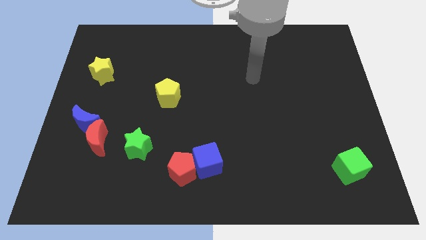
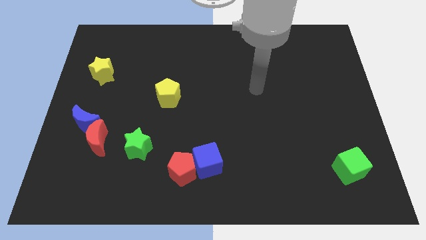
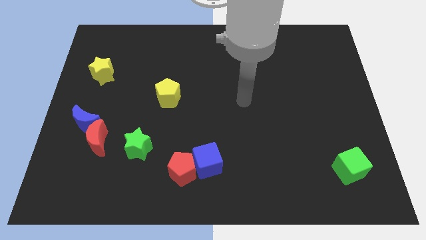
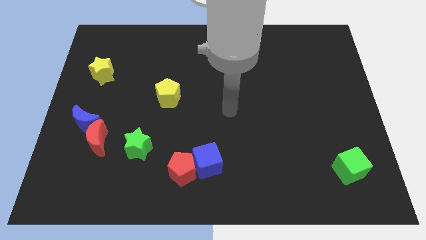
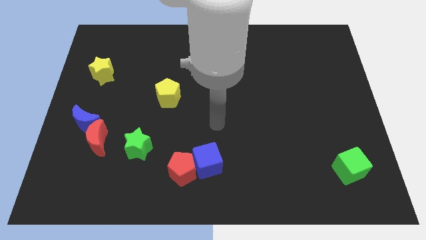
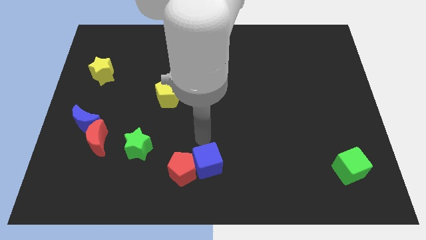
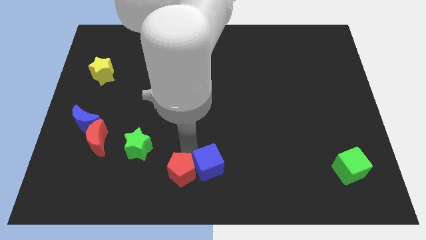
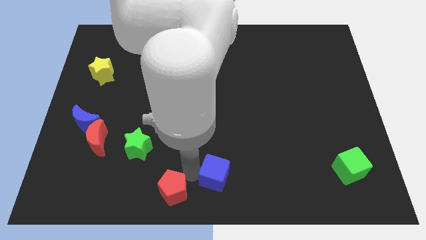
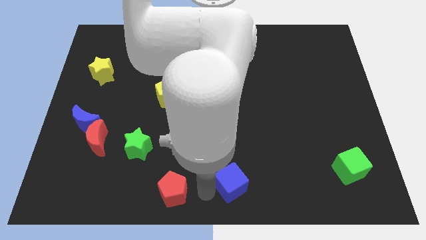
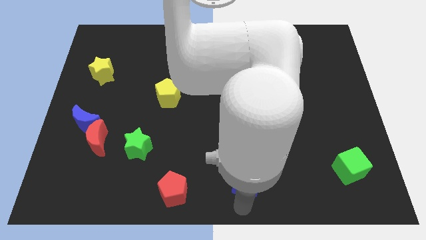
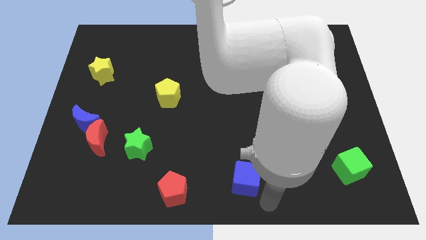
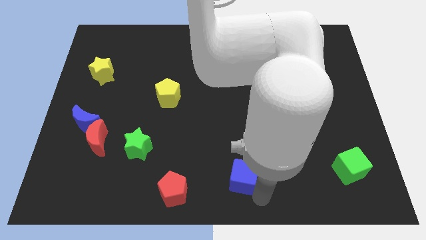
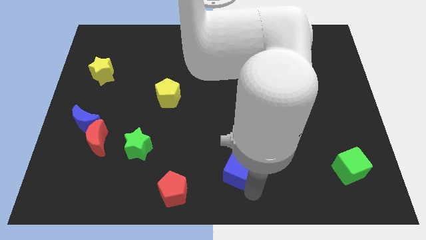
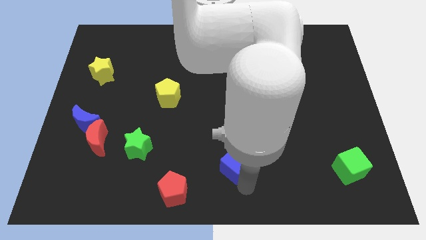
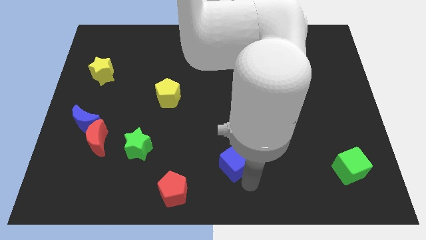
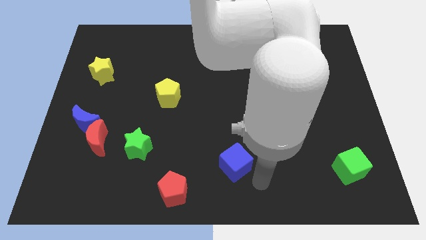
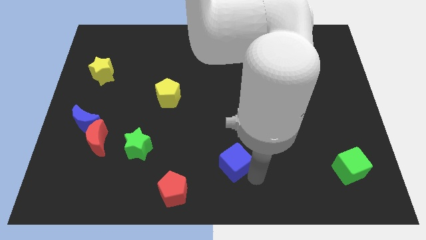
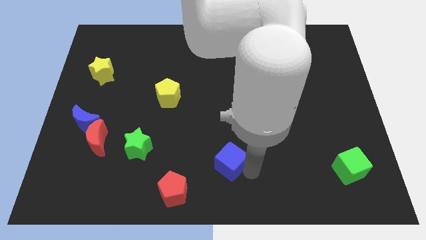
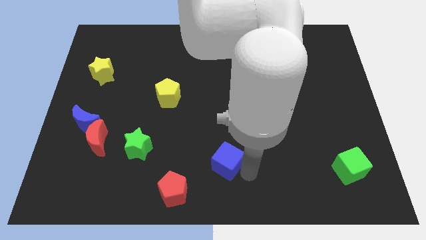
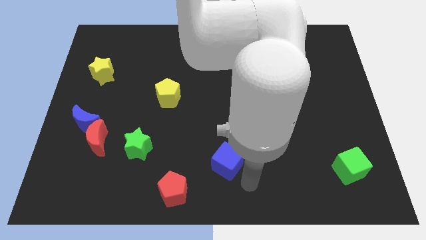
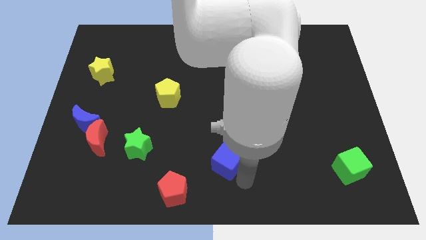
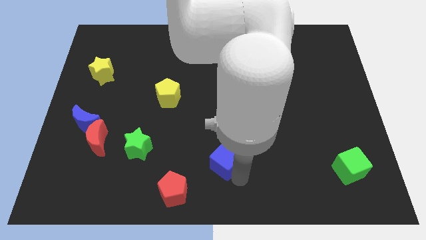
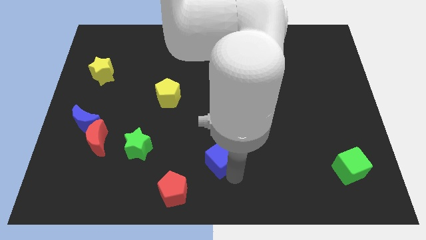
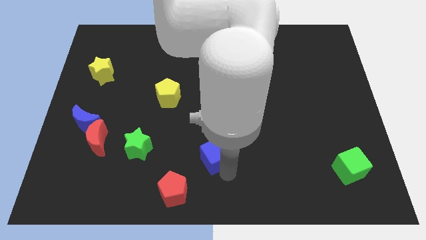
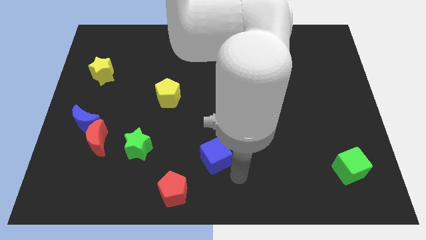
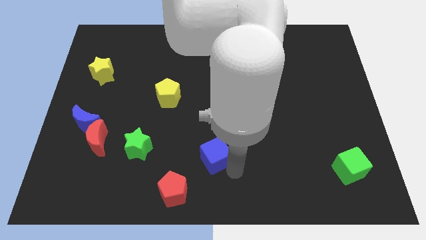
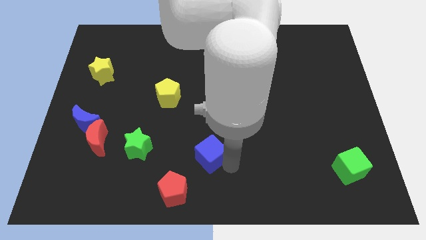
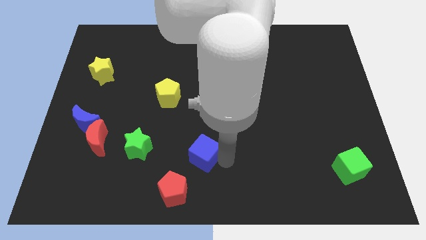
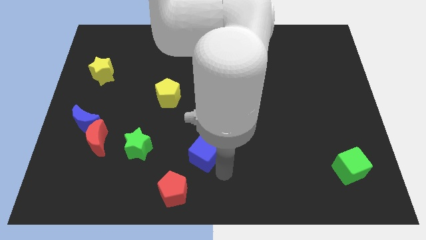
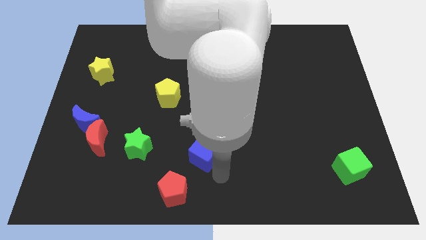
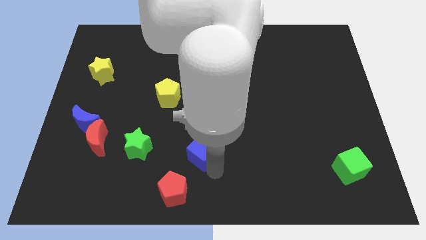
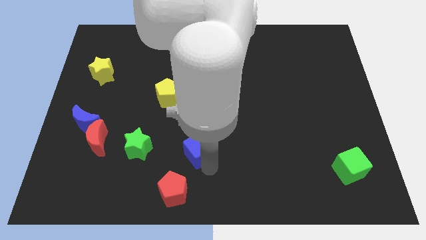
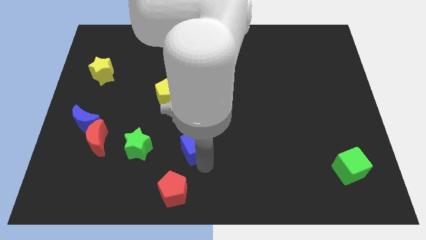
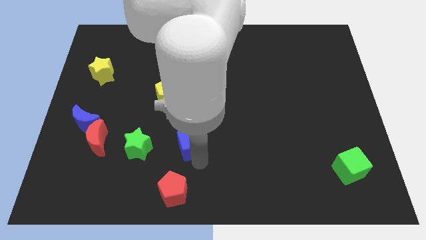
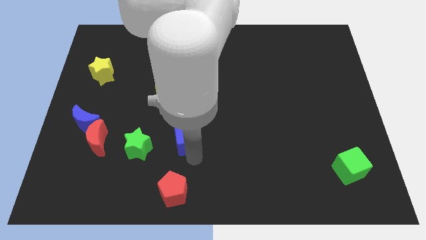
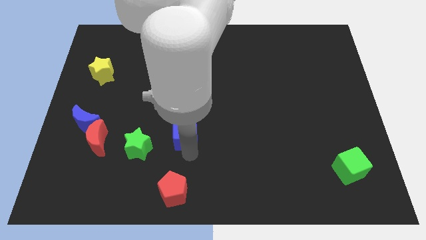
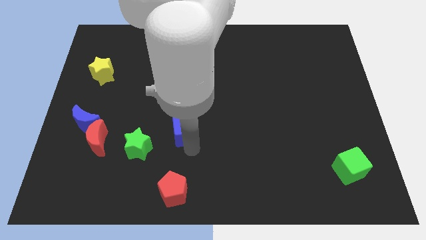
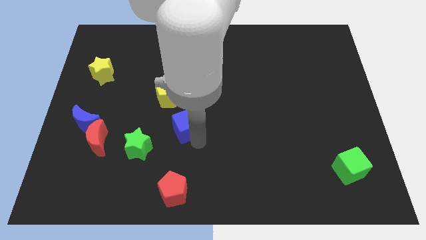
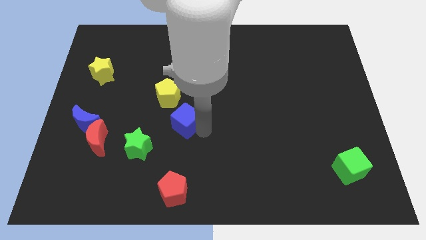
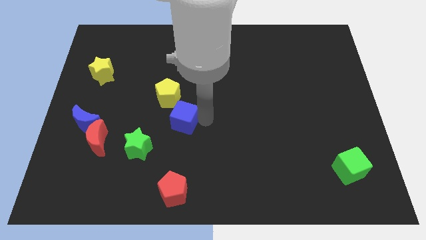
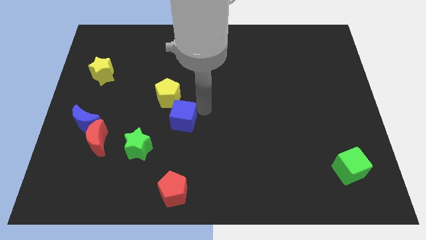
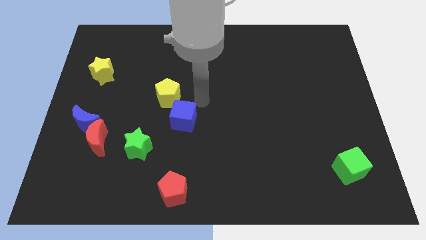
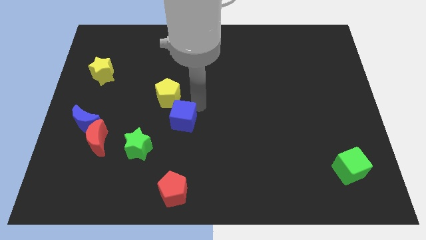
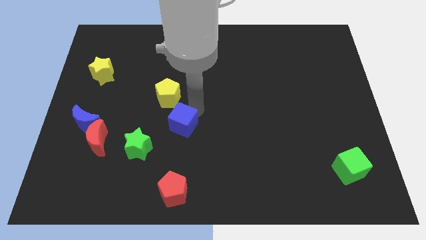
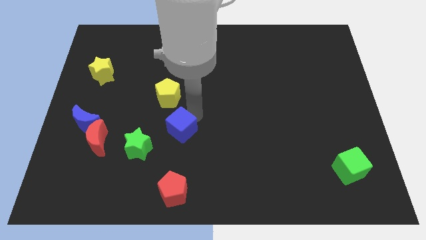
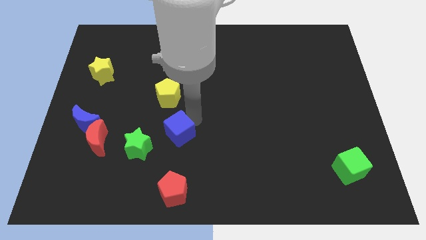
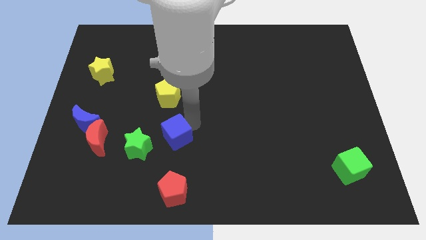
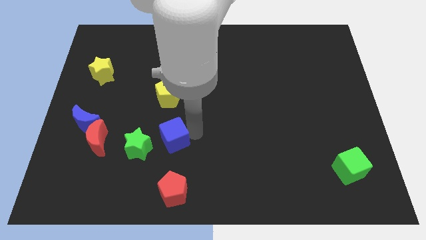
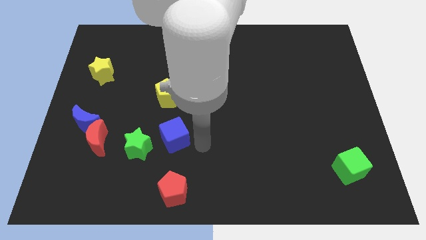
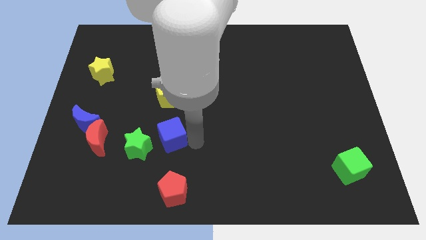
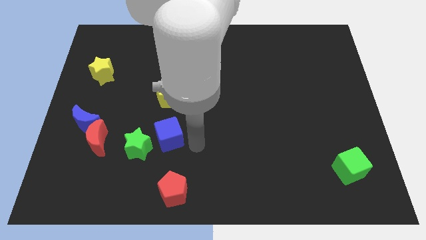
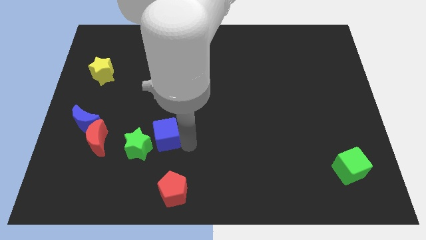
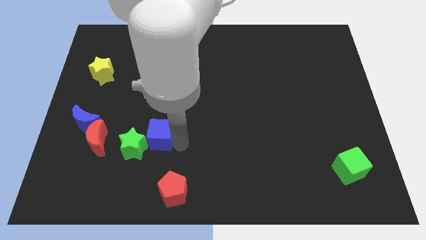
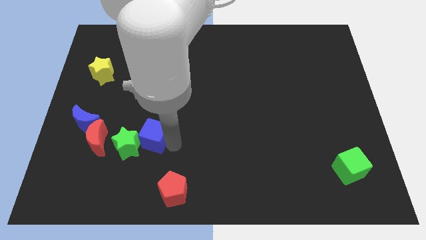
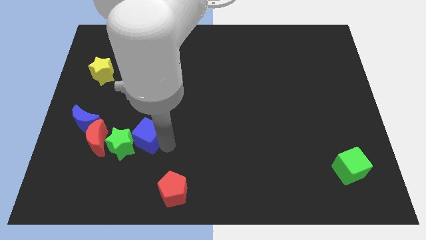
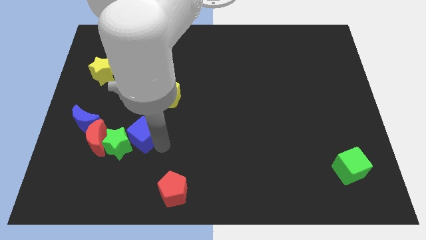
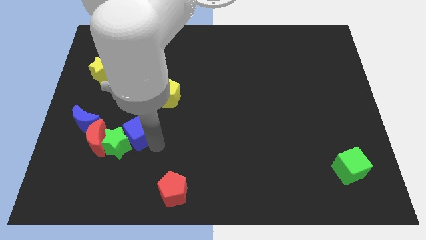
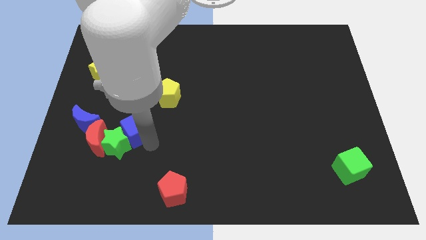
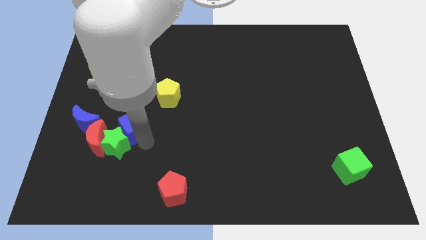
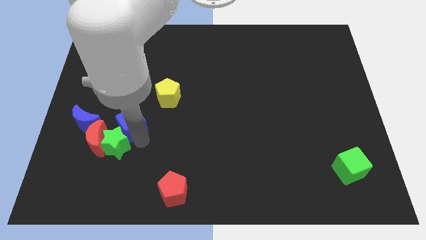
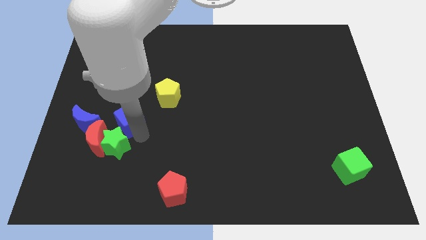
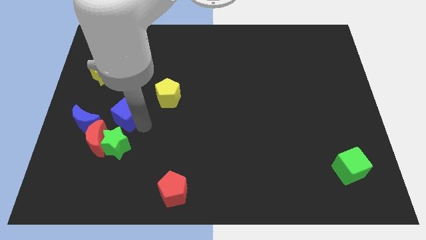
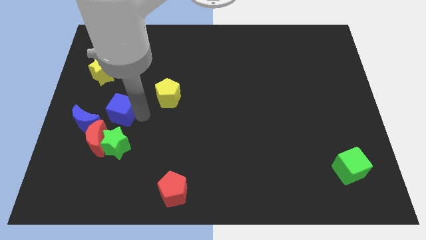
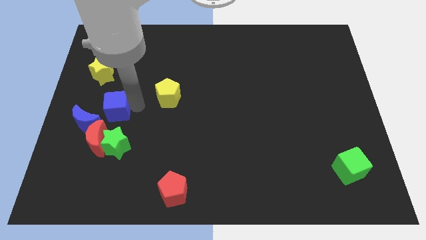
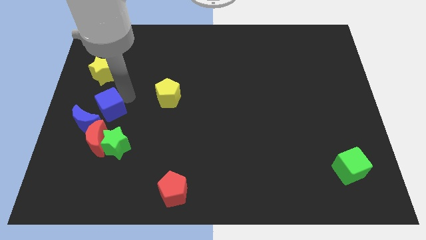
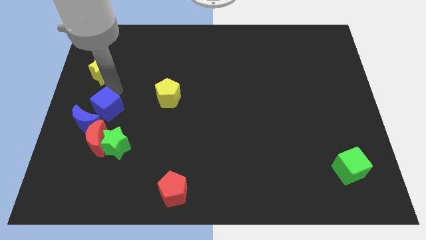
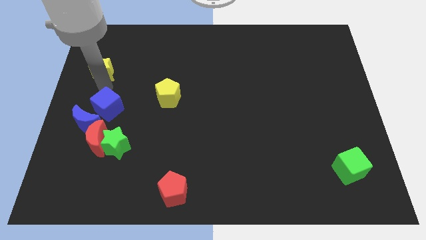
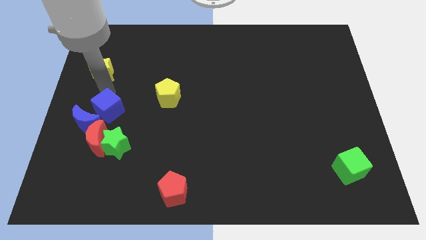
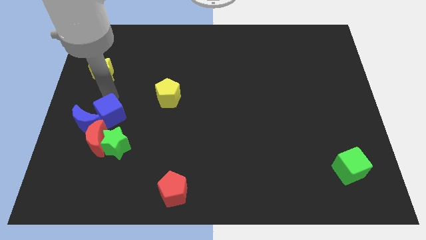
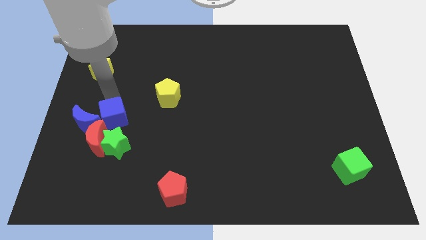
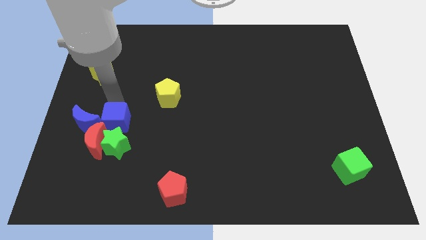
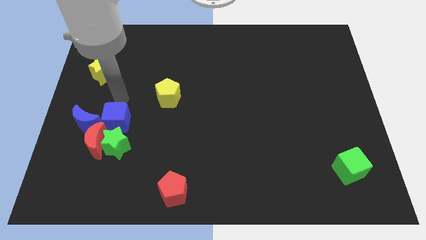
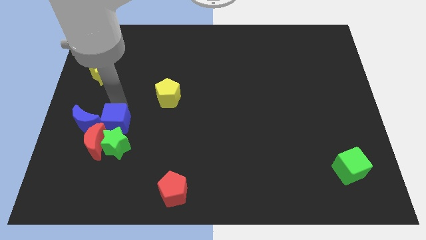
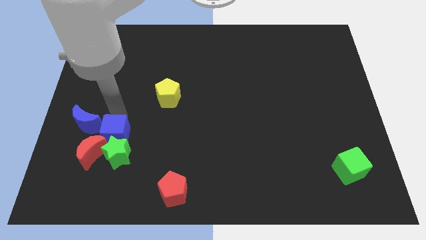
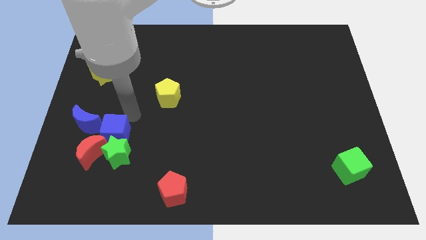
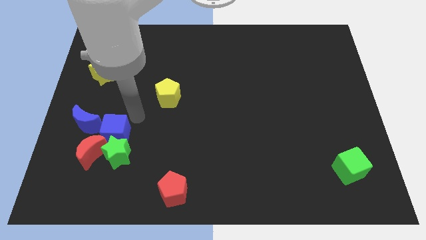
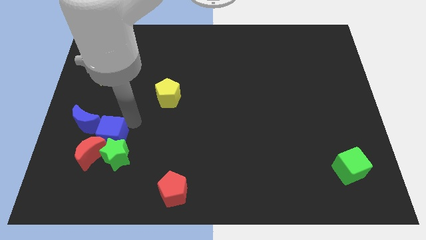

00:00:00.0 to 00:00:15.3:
push the blue cube next to the red moon
